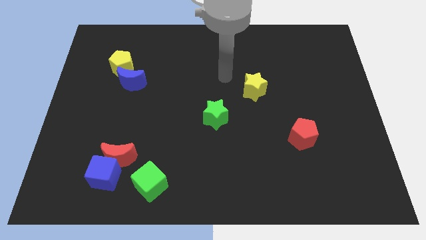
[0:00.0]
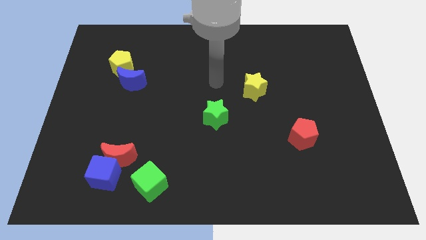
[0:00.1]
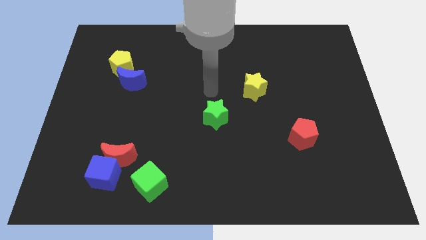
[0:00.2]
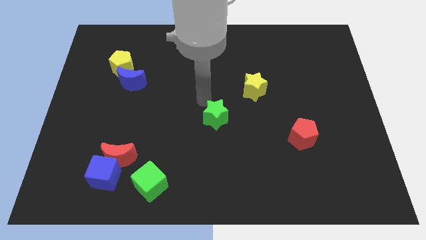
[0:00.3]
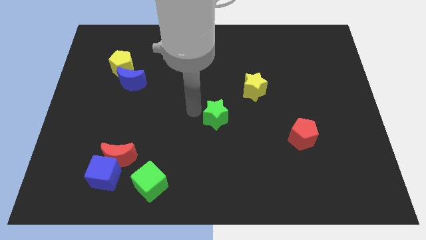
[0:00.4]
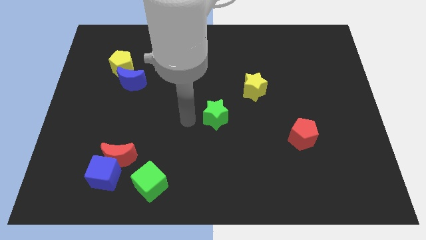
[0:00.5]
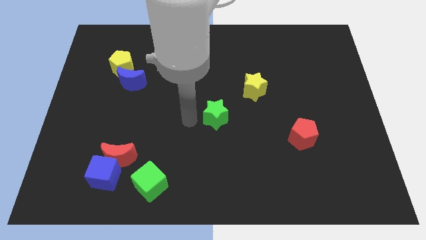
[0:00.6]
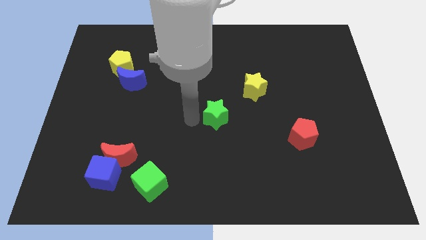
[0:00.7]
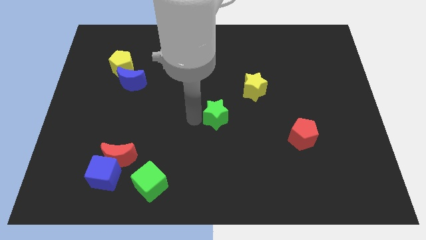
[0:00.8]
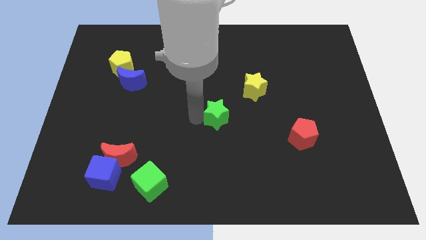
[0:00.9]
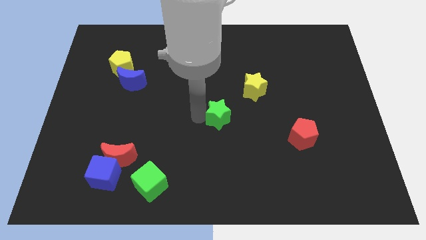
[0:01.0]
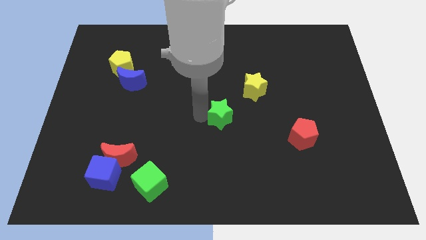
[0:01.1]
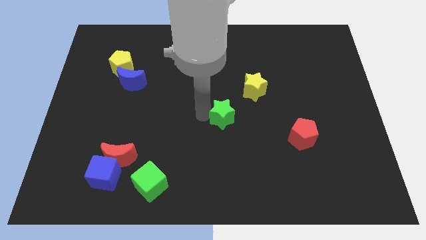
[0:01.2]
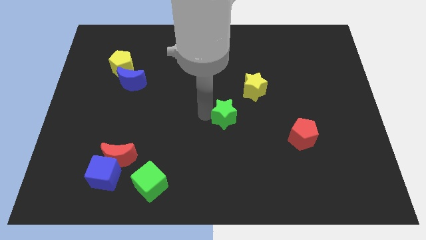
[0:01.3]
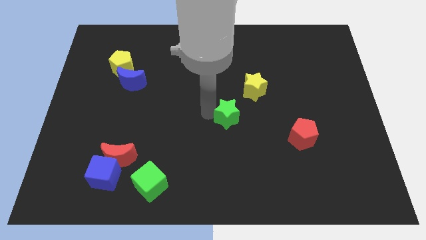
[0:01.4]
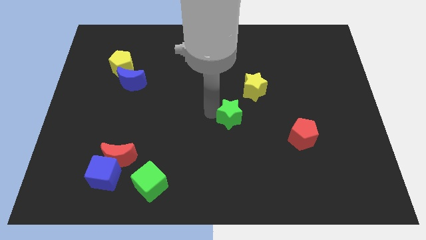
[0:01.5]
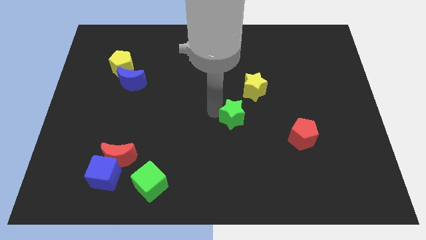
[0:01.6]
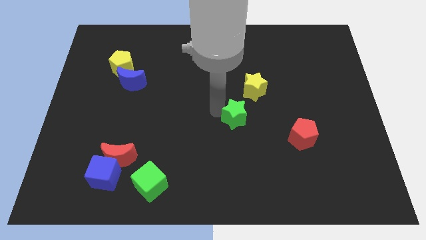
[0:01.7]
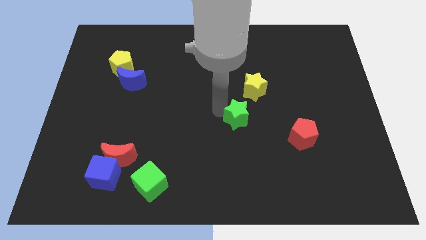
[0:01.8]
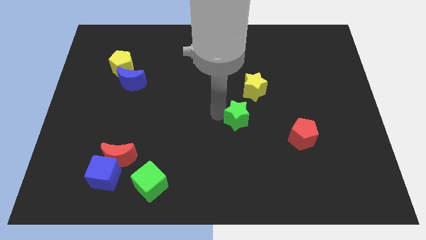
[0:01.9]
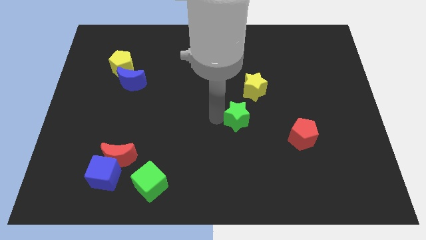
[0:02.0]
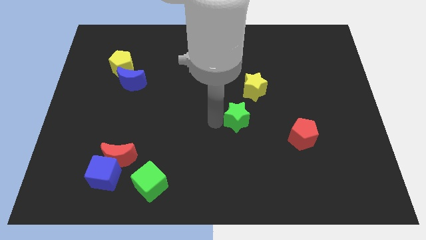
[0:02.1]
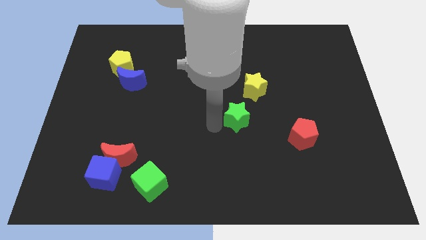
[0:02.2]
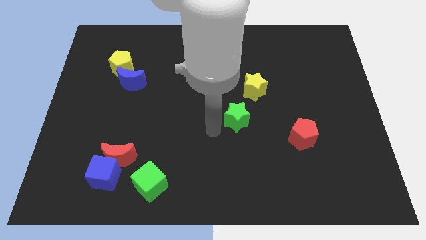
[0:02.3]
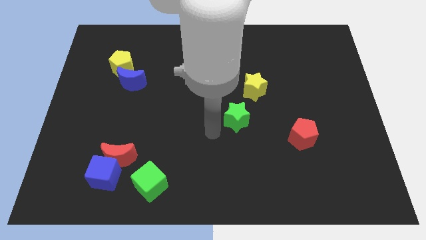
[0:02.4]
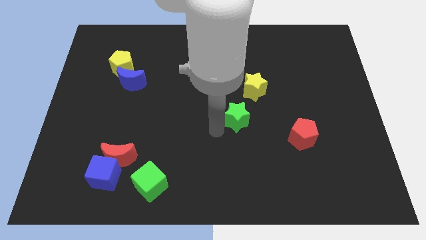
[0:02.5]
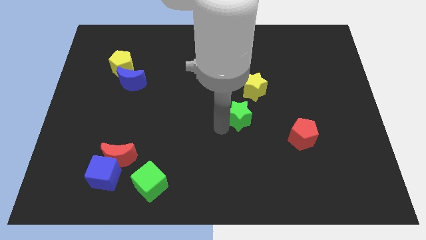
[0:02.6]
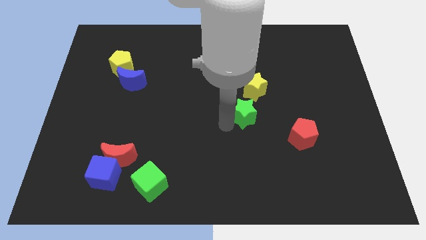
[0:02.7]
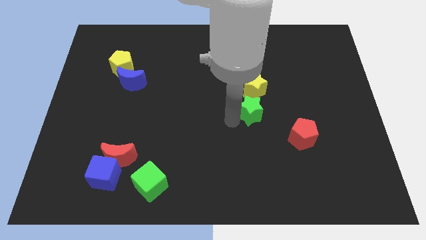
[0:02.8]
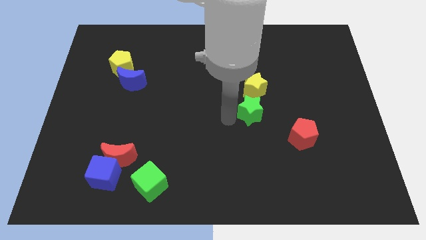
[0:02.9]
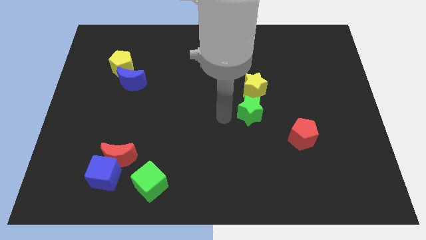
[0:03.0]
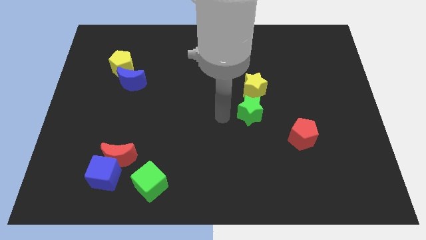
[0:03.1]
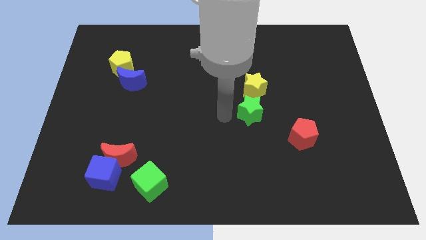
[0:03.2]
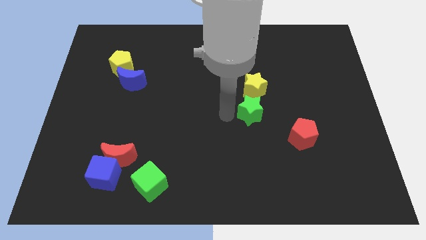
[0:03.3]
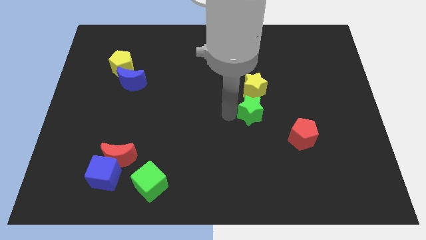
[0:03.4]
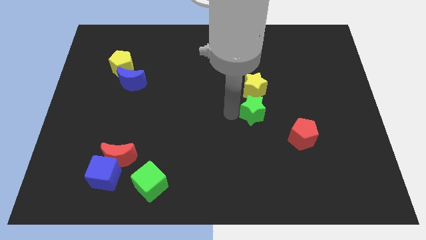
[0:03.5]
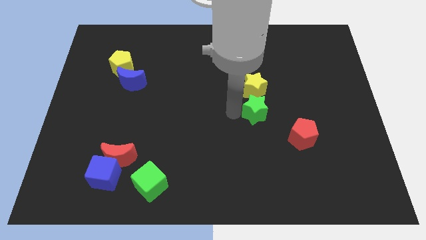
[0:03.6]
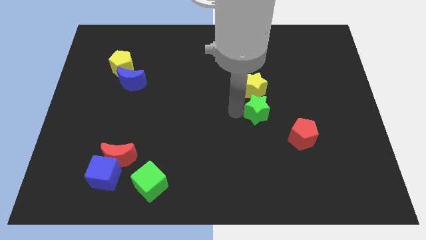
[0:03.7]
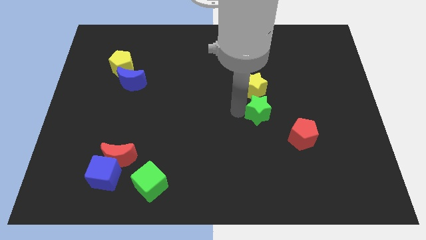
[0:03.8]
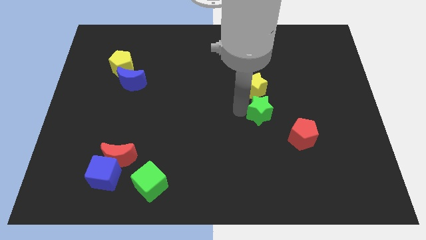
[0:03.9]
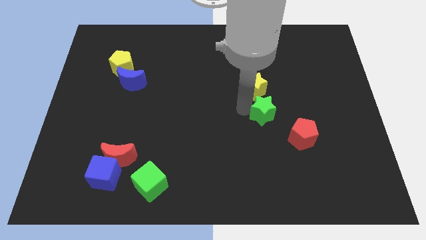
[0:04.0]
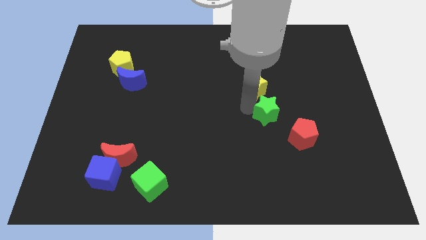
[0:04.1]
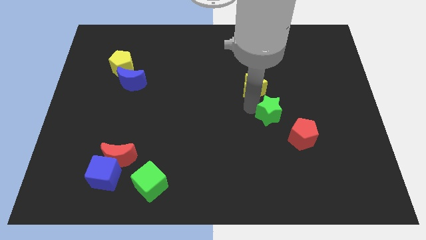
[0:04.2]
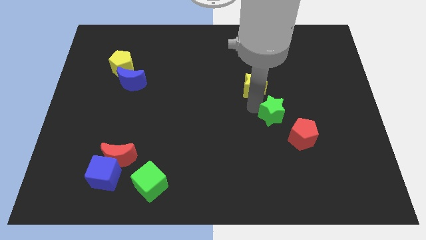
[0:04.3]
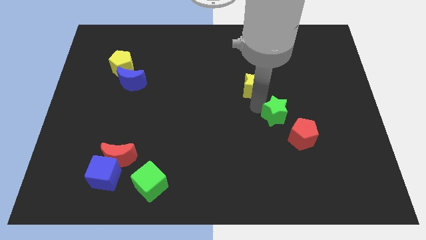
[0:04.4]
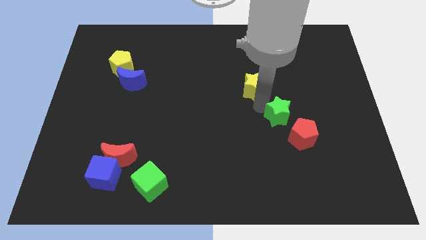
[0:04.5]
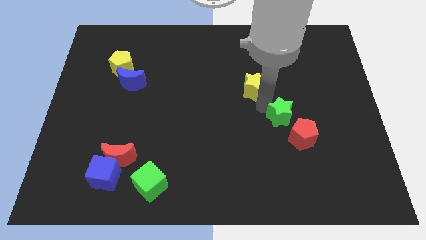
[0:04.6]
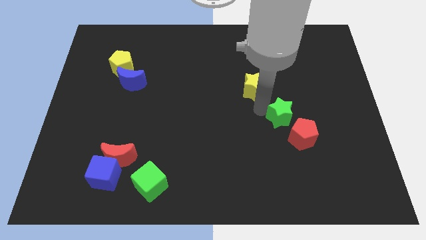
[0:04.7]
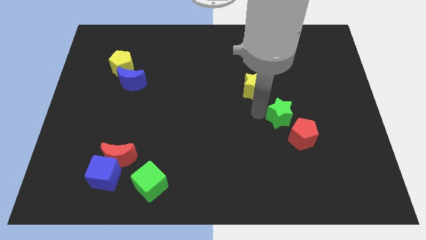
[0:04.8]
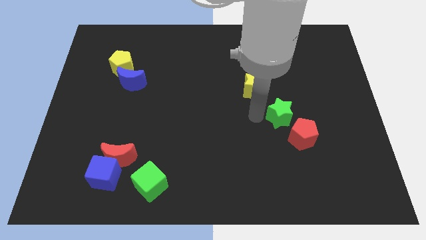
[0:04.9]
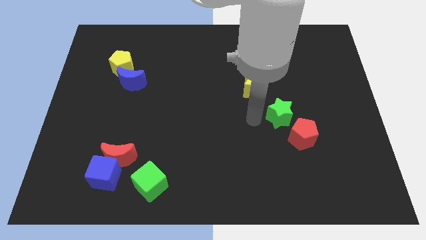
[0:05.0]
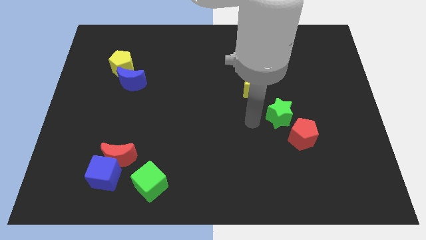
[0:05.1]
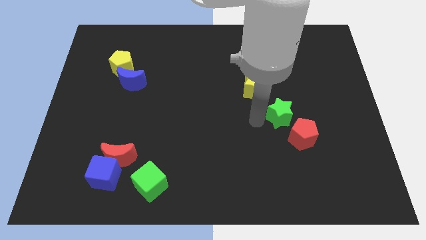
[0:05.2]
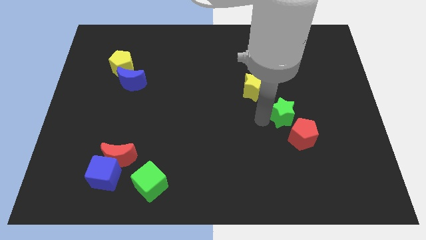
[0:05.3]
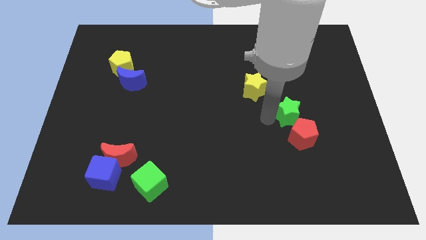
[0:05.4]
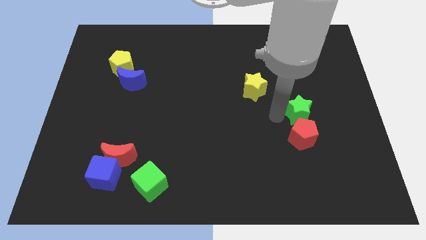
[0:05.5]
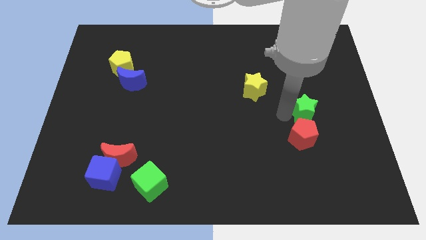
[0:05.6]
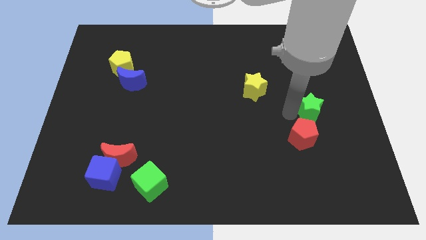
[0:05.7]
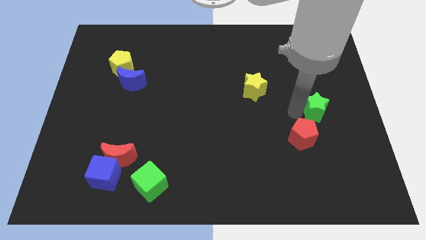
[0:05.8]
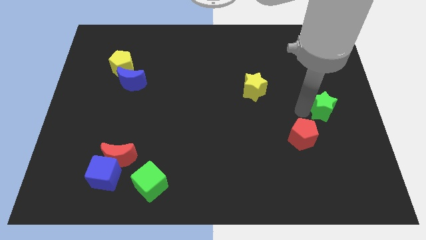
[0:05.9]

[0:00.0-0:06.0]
move the green star to the center right

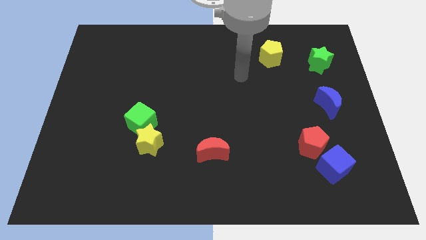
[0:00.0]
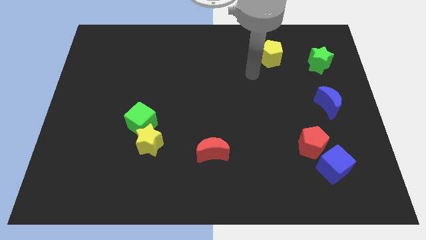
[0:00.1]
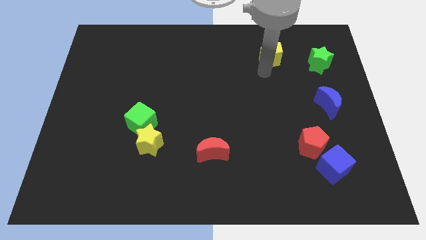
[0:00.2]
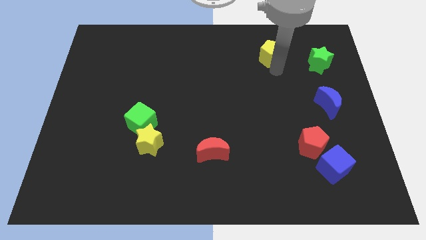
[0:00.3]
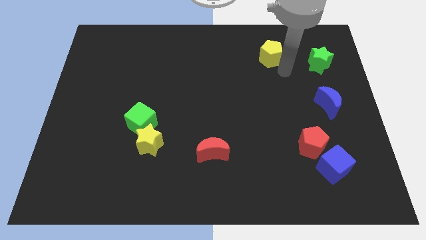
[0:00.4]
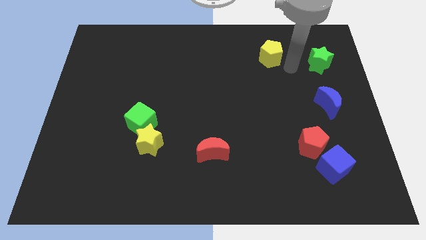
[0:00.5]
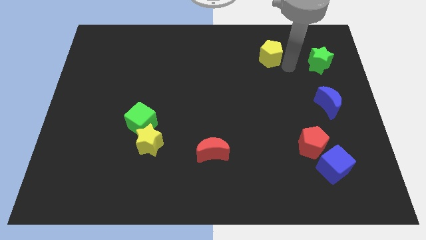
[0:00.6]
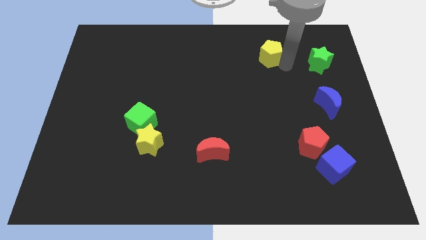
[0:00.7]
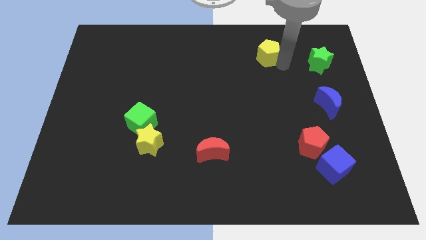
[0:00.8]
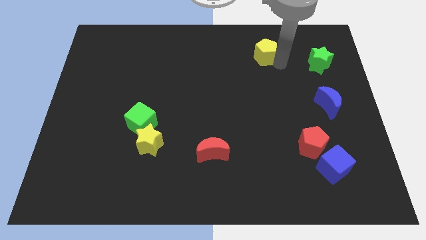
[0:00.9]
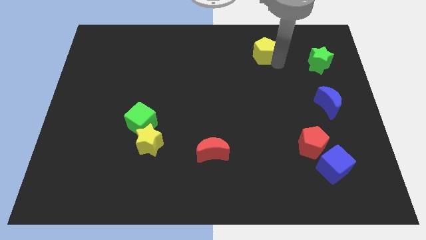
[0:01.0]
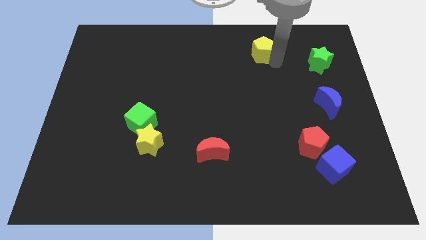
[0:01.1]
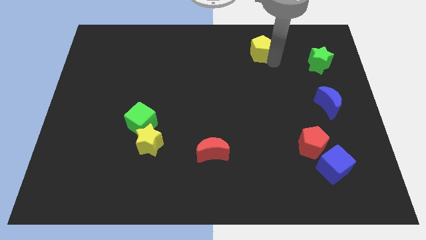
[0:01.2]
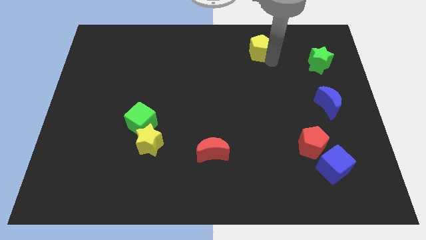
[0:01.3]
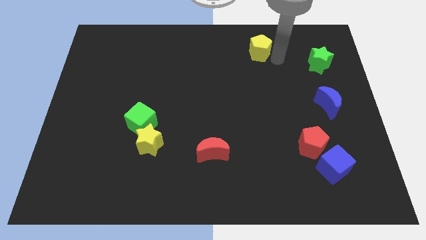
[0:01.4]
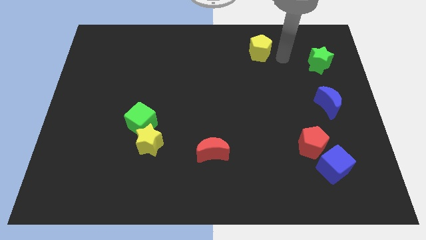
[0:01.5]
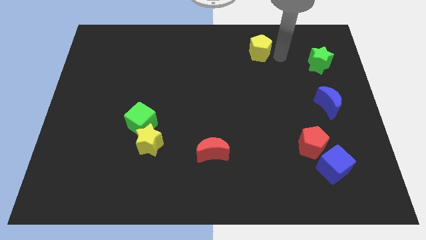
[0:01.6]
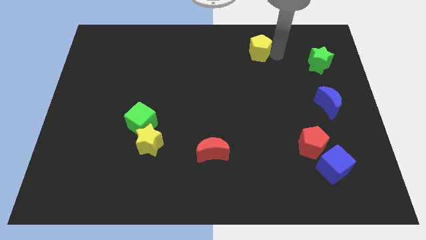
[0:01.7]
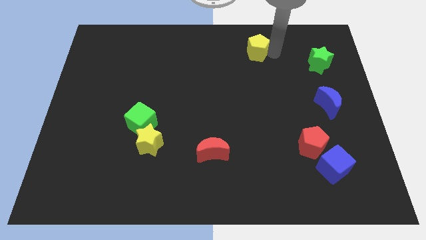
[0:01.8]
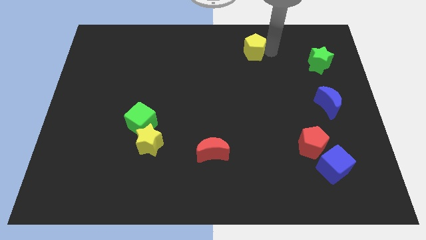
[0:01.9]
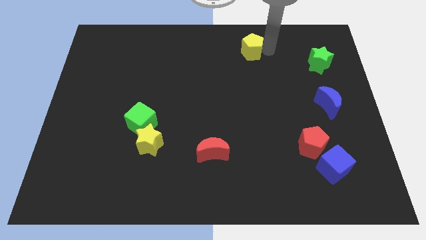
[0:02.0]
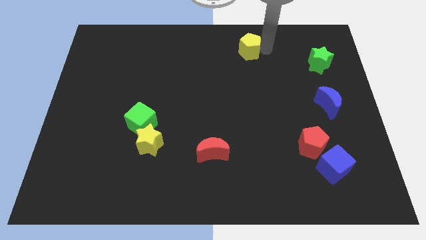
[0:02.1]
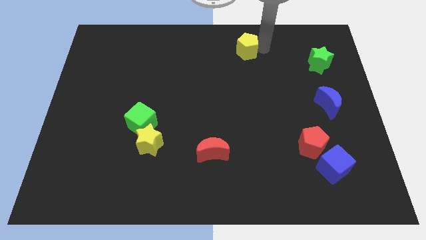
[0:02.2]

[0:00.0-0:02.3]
move the yellow pentagon to the towards your base
